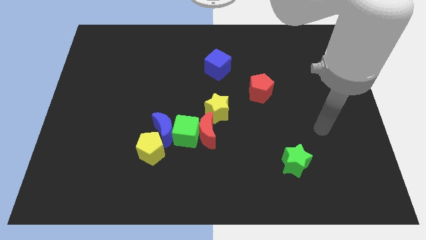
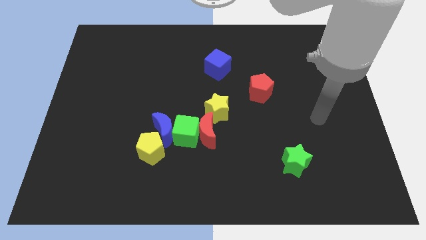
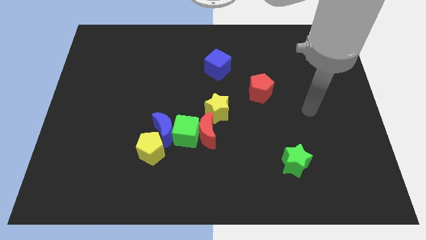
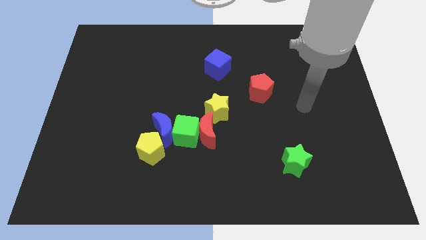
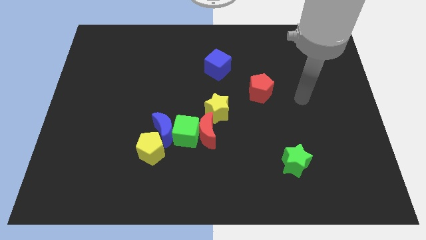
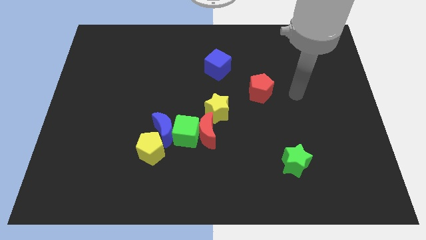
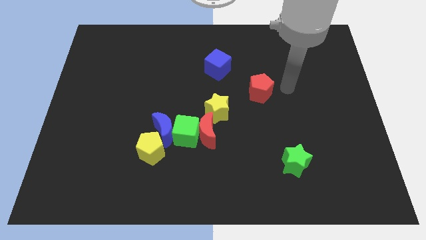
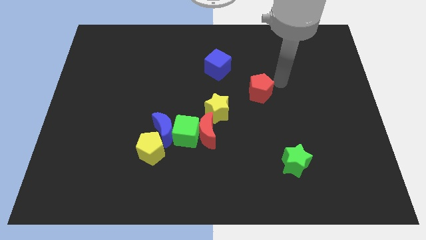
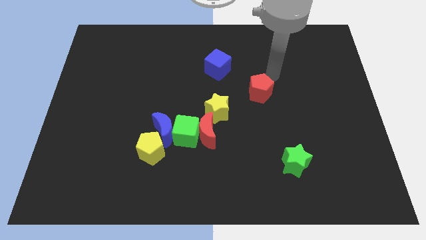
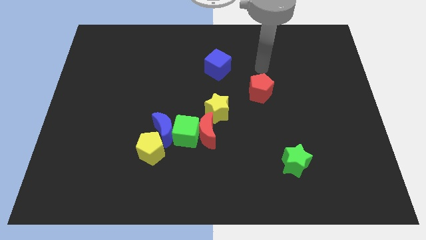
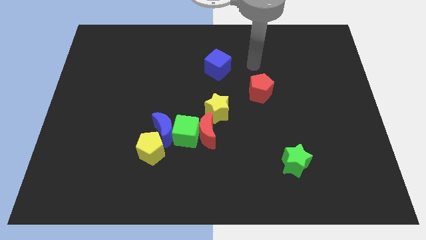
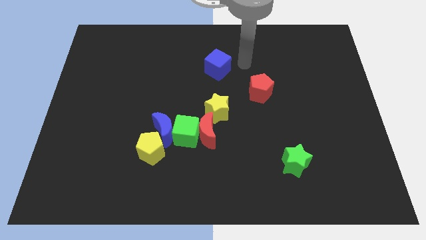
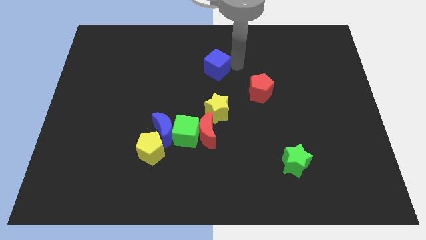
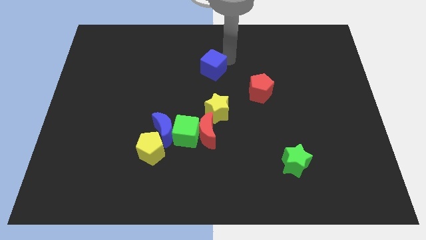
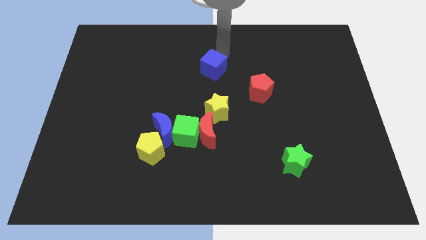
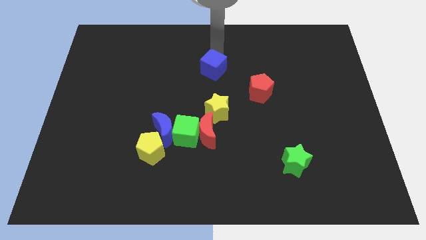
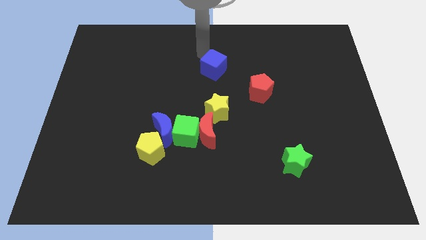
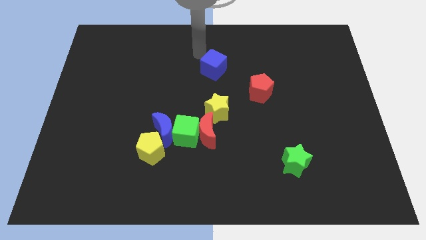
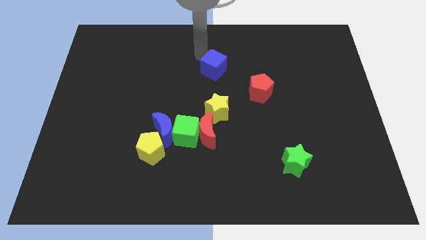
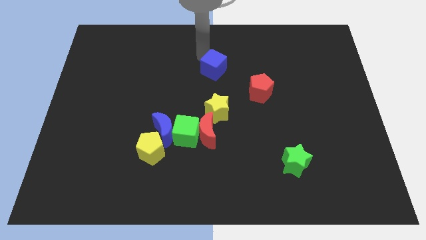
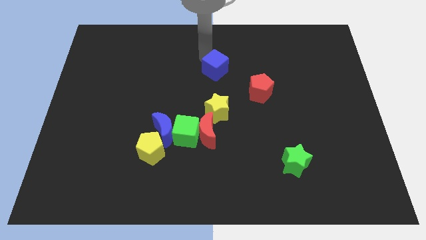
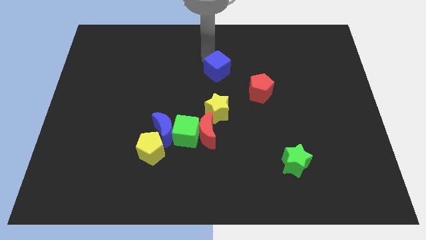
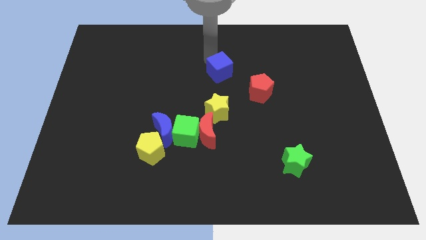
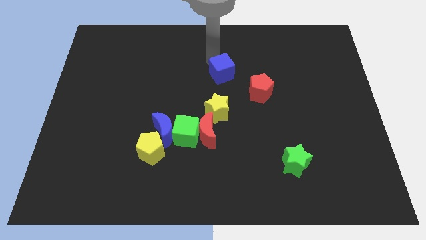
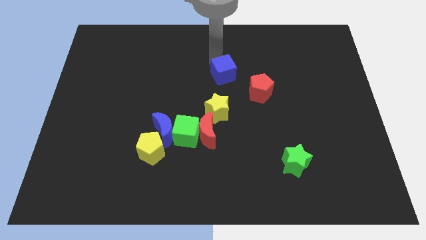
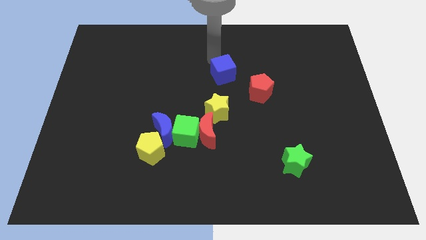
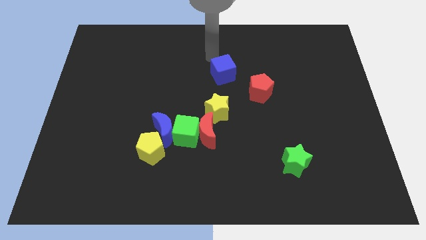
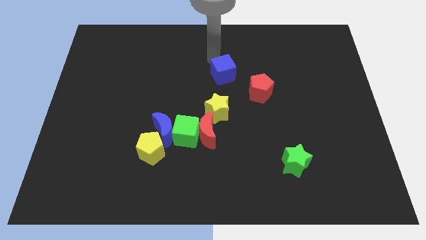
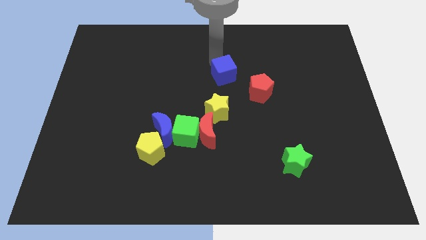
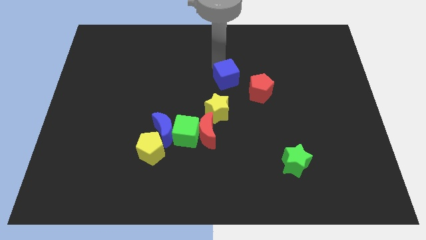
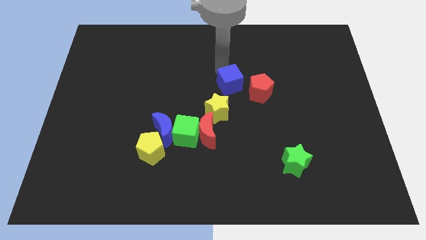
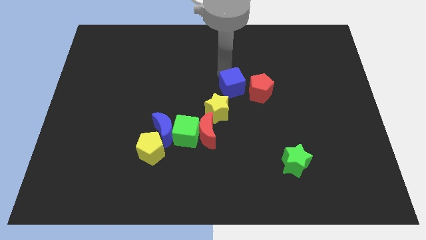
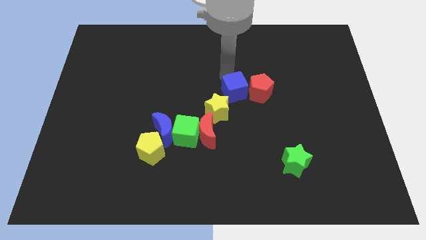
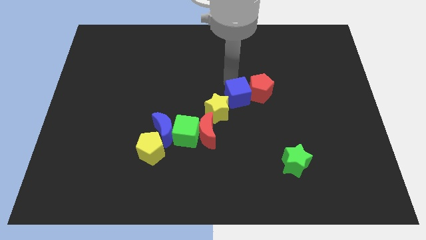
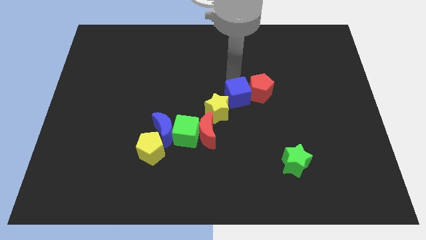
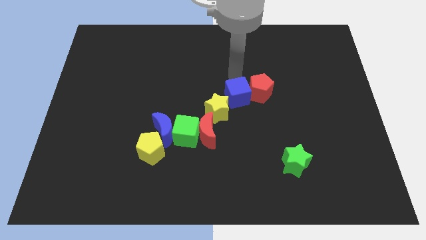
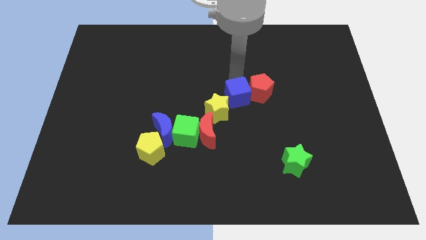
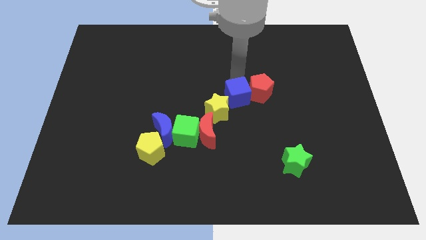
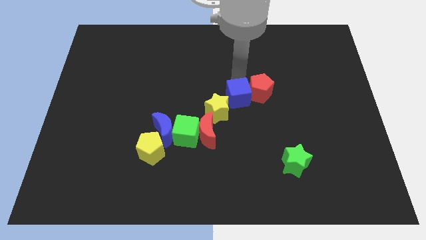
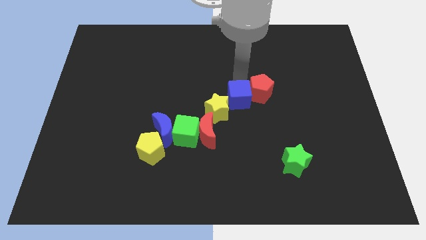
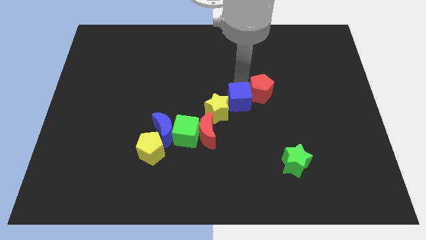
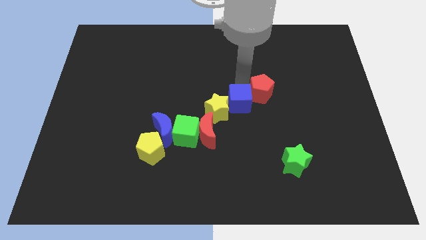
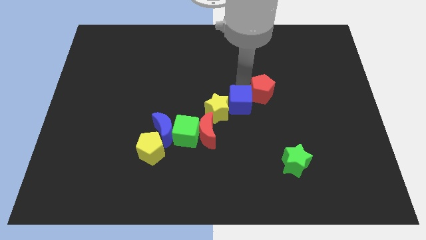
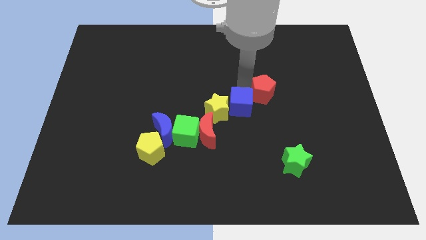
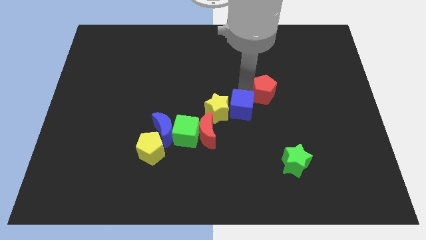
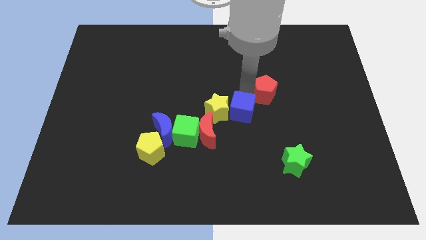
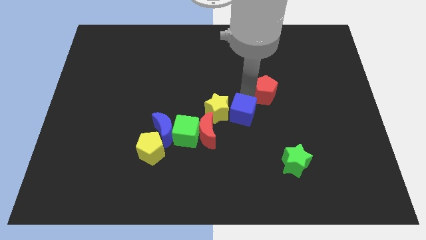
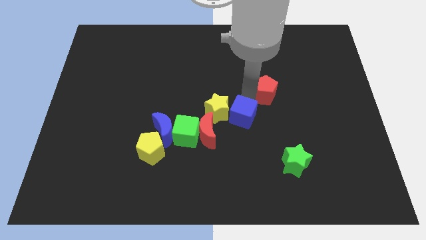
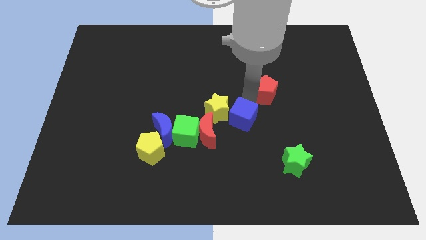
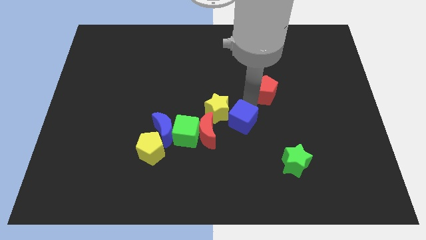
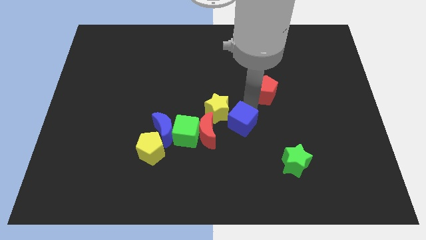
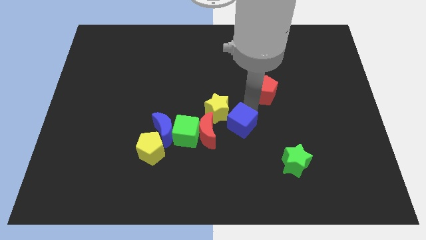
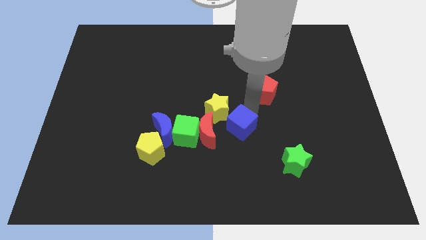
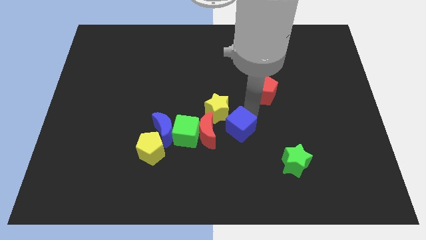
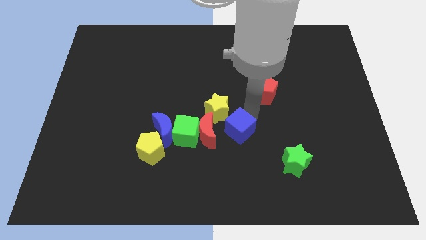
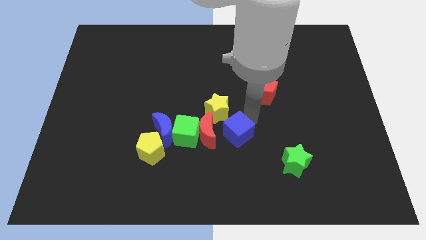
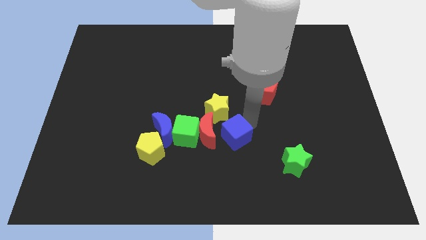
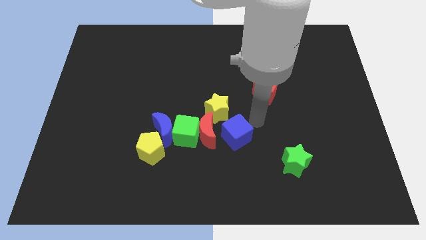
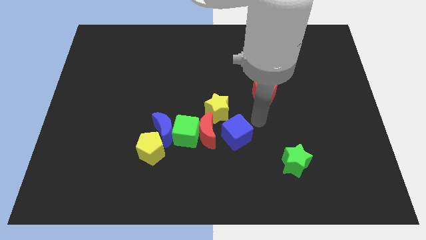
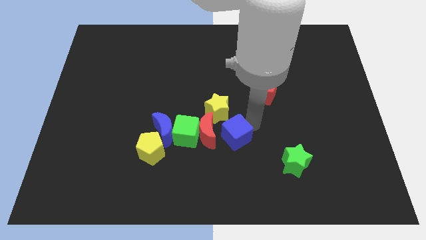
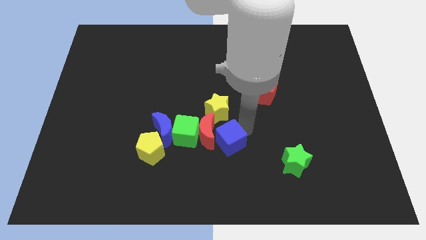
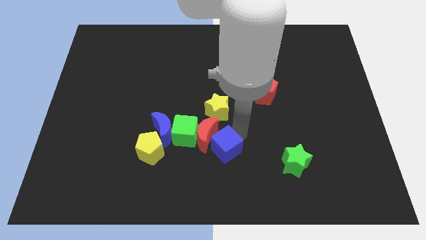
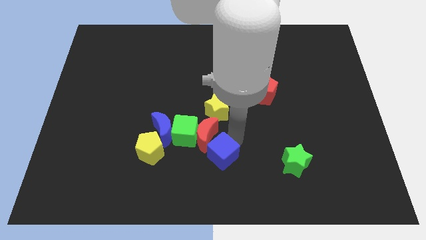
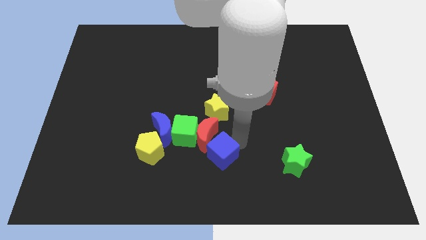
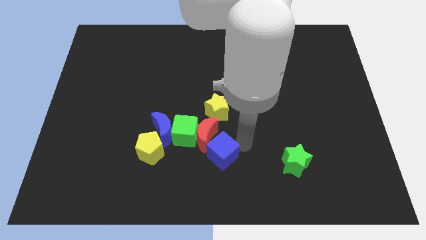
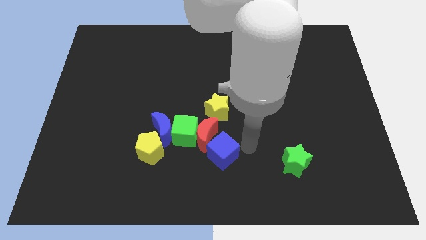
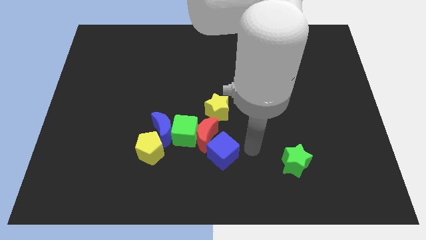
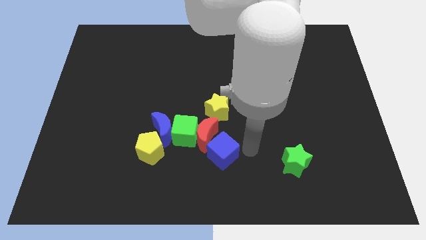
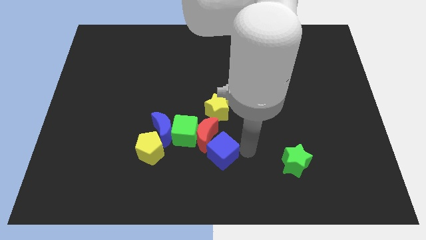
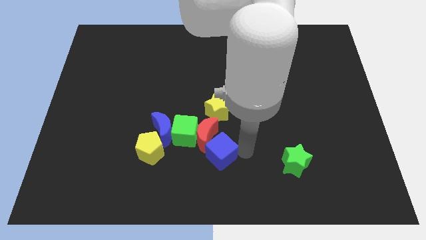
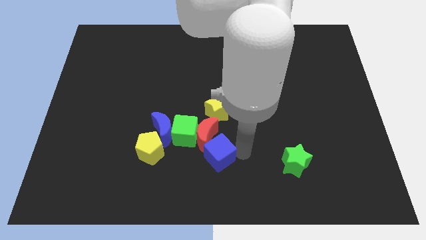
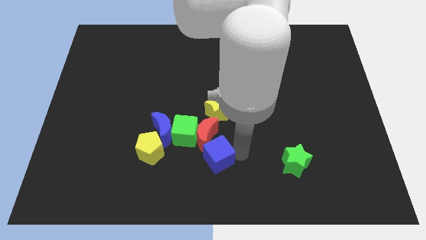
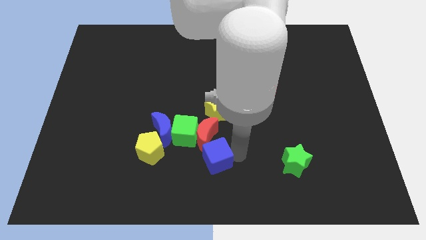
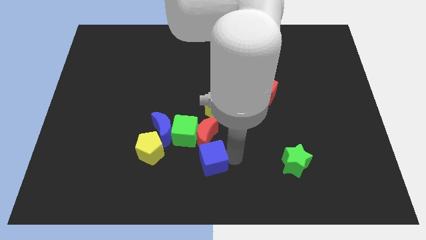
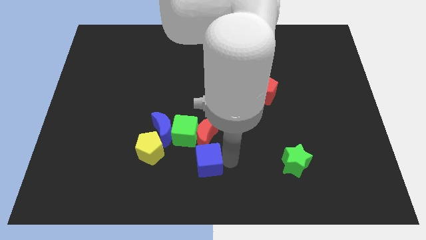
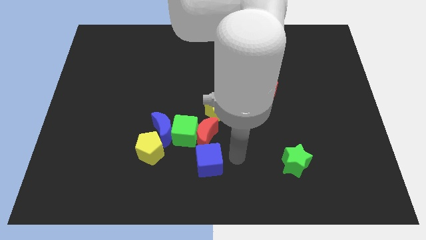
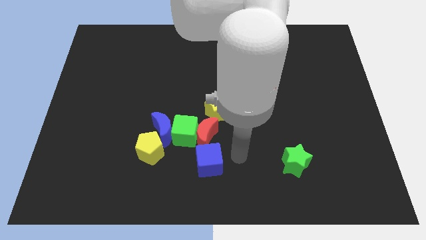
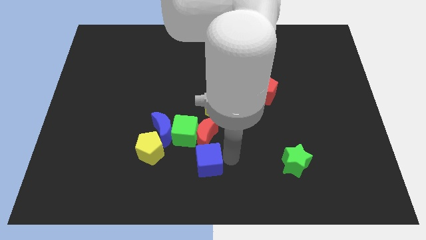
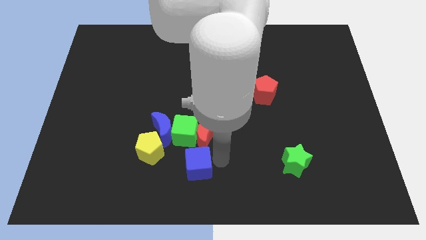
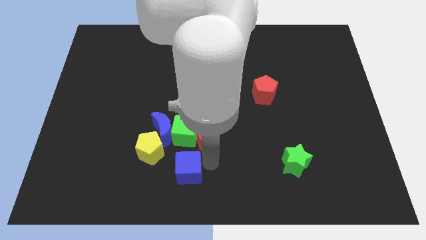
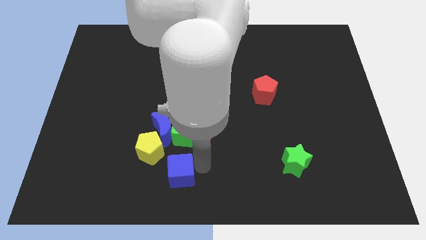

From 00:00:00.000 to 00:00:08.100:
move the blue cube to the bottom of the blue moon
